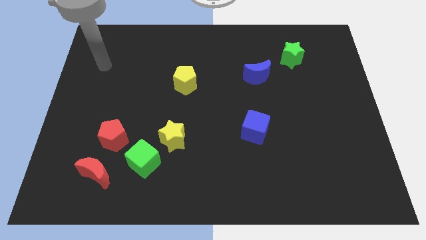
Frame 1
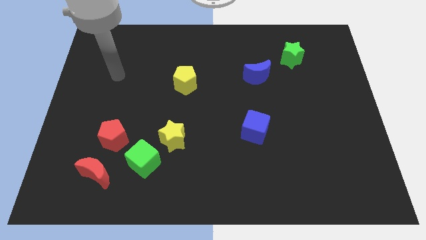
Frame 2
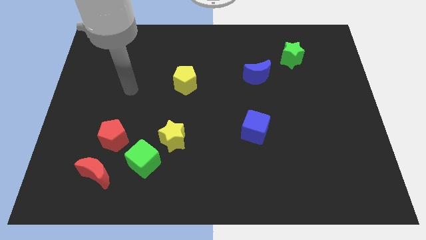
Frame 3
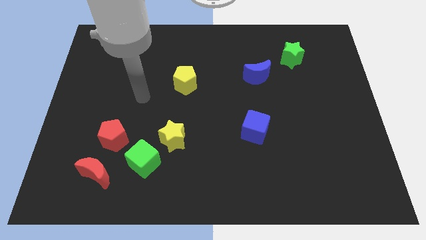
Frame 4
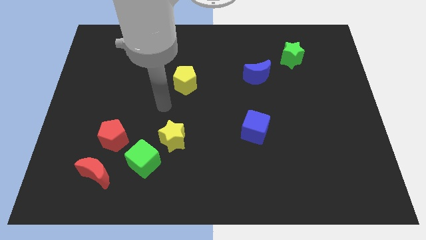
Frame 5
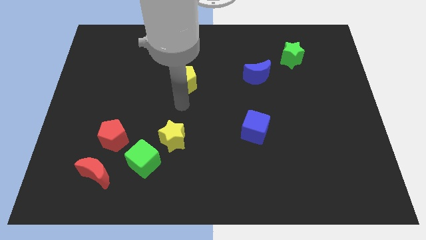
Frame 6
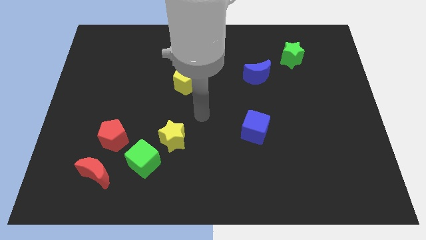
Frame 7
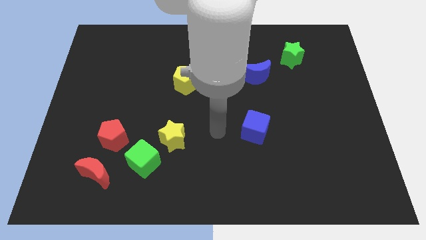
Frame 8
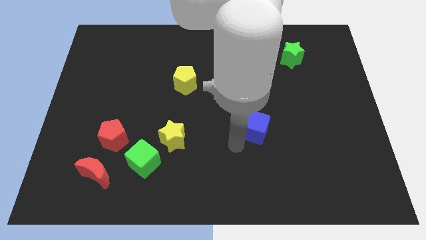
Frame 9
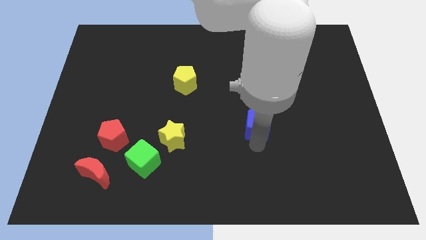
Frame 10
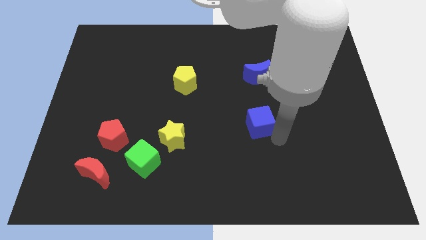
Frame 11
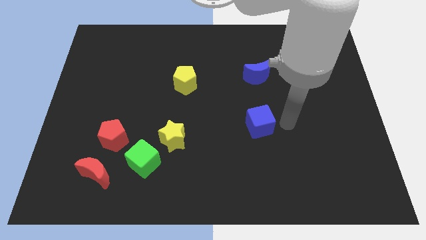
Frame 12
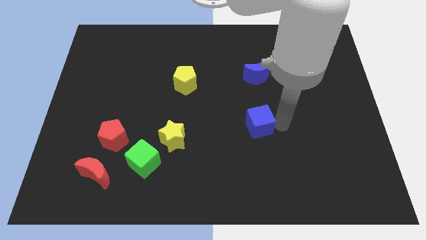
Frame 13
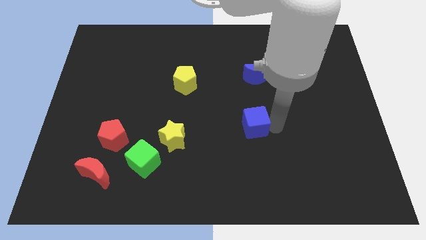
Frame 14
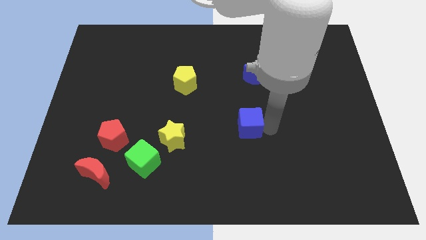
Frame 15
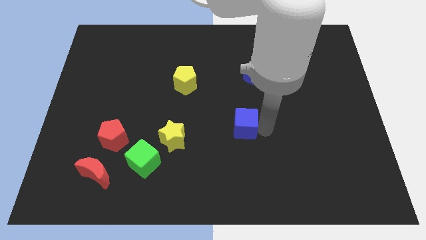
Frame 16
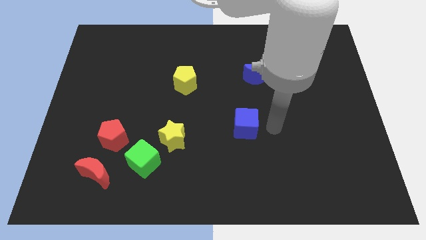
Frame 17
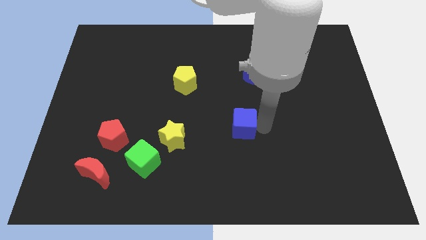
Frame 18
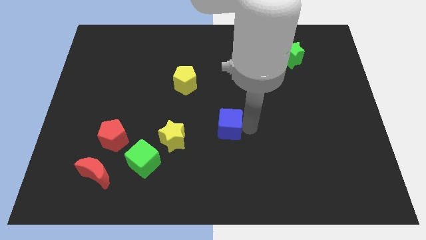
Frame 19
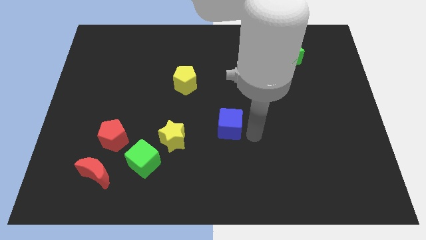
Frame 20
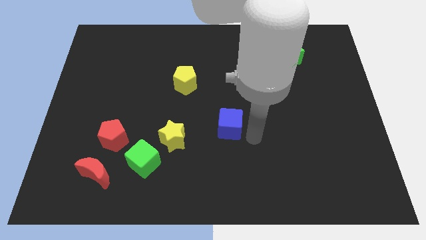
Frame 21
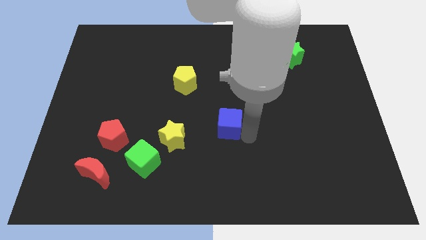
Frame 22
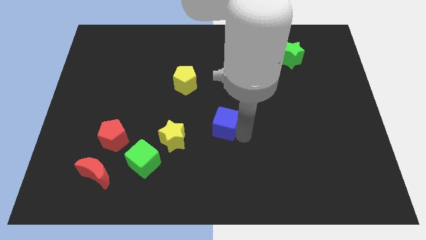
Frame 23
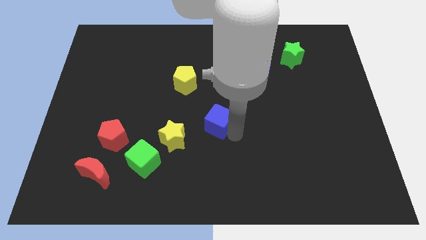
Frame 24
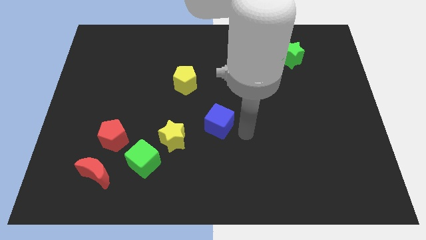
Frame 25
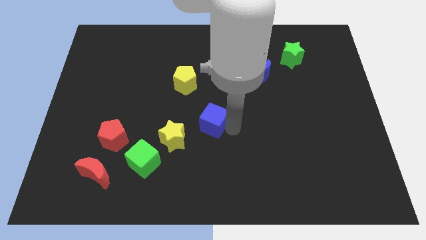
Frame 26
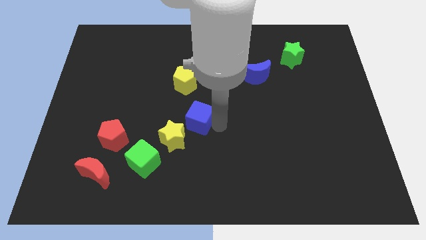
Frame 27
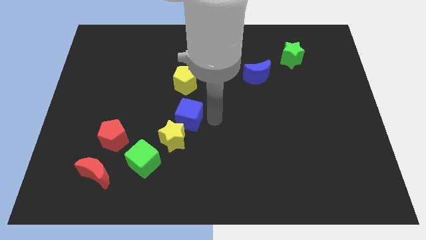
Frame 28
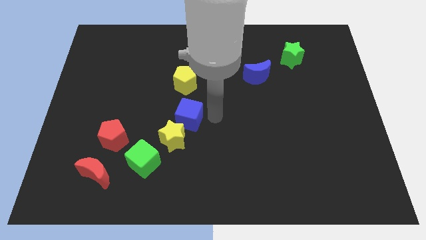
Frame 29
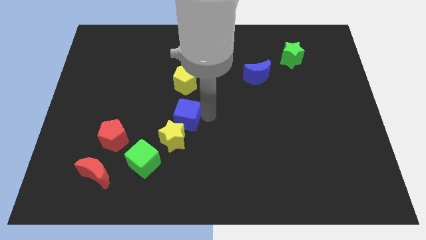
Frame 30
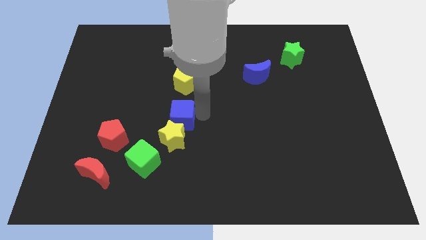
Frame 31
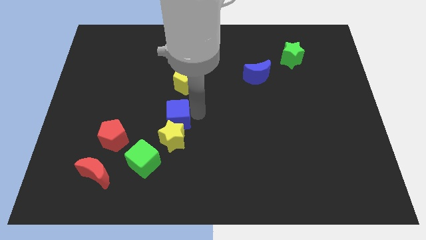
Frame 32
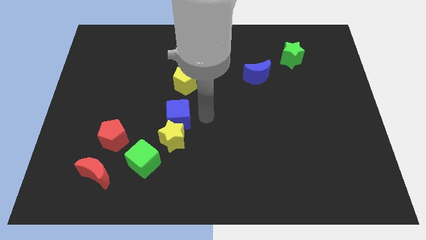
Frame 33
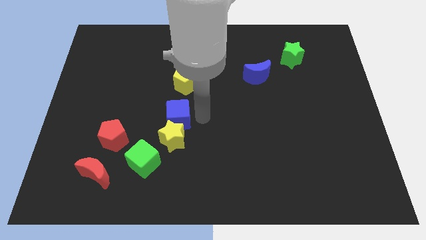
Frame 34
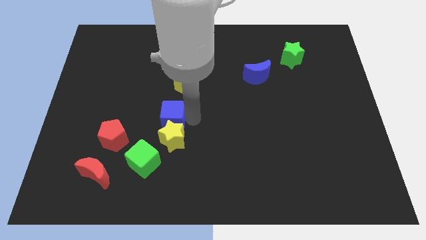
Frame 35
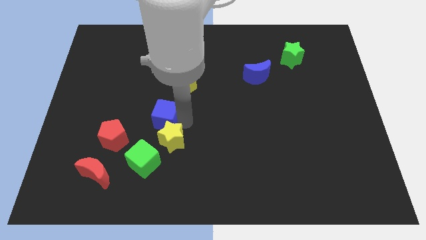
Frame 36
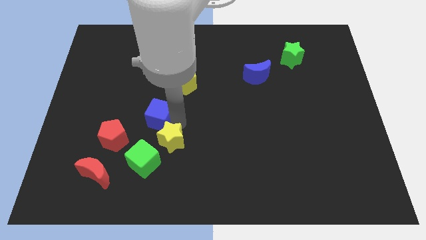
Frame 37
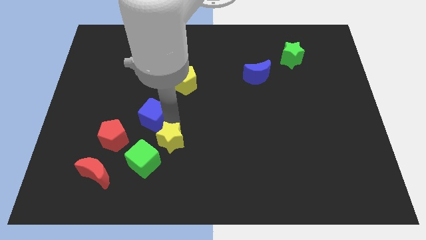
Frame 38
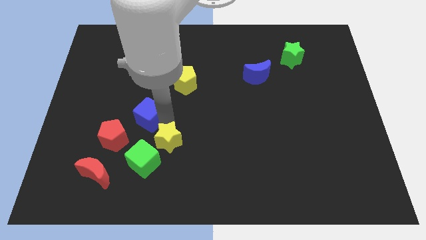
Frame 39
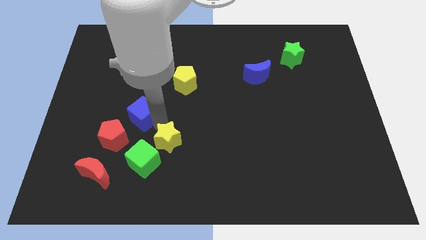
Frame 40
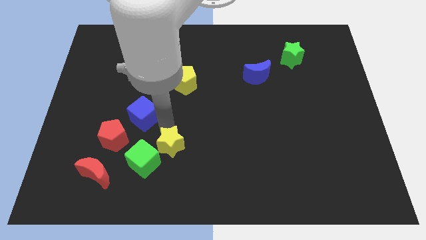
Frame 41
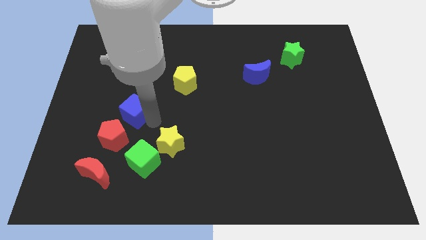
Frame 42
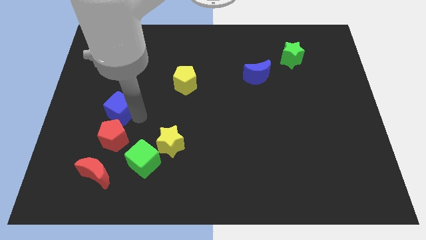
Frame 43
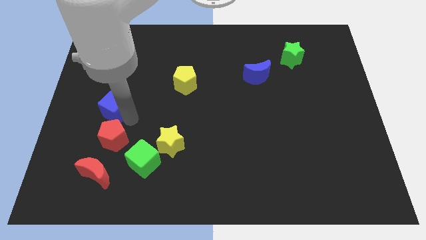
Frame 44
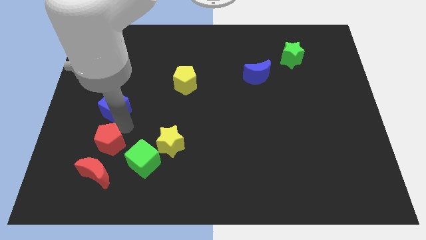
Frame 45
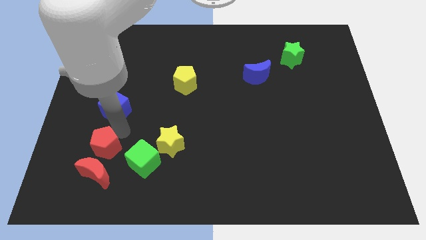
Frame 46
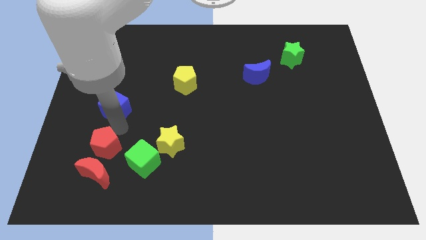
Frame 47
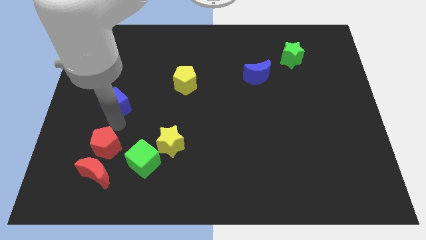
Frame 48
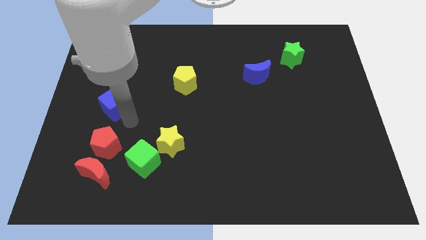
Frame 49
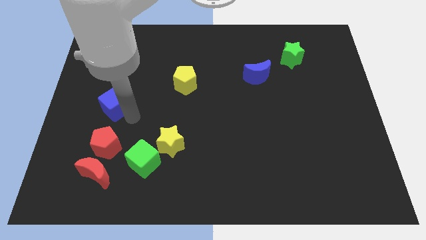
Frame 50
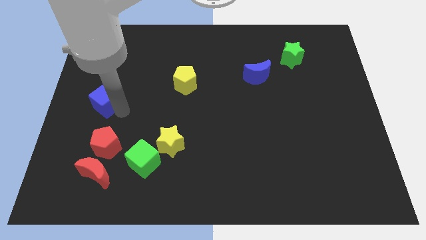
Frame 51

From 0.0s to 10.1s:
put the blue cube to the left side of the board

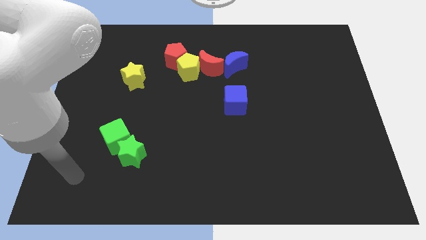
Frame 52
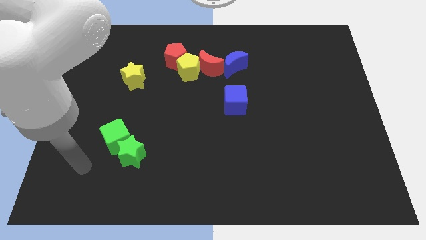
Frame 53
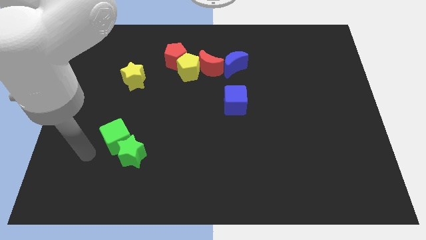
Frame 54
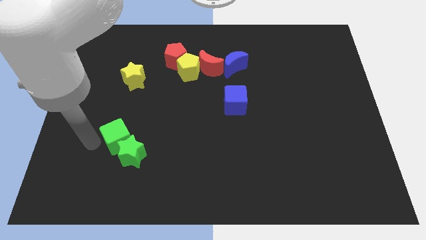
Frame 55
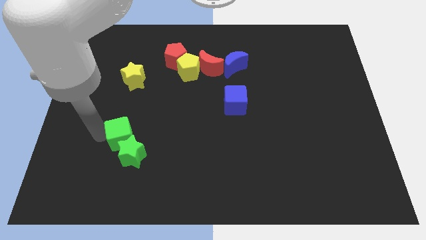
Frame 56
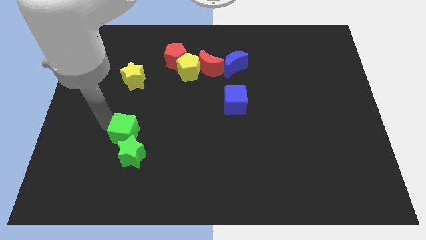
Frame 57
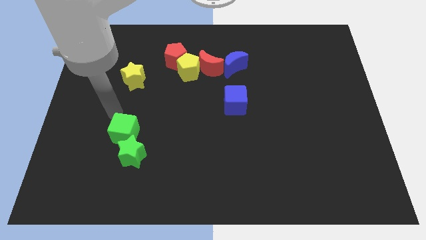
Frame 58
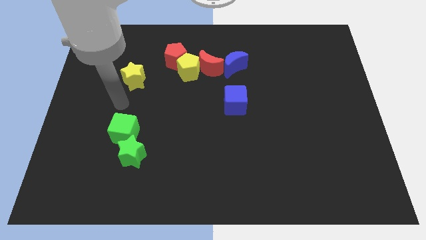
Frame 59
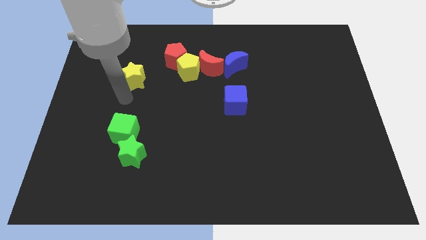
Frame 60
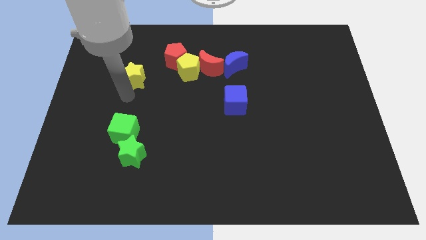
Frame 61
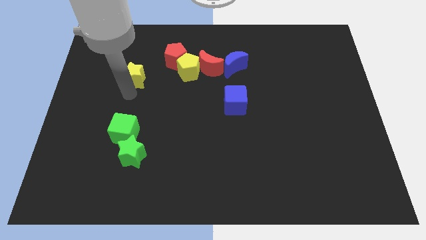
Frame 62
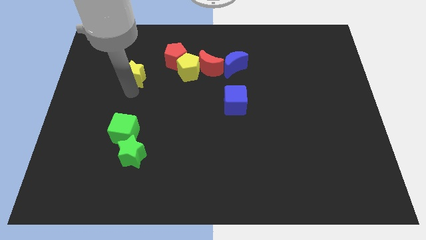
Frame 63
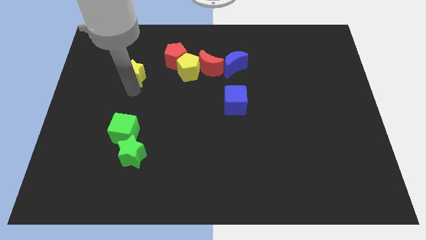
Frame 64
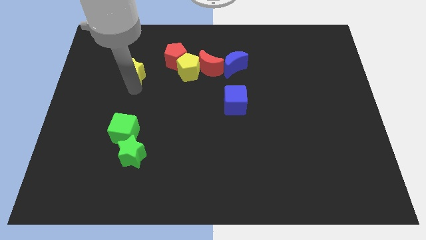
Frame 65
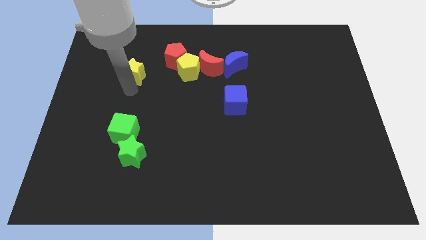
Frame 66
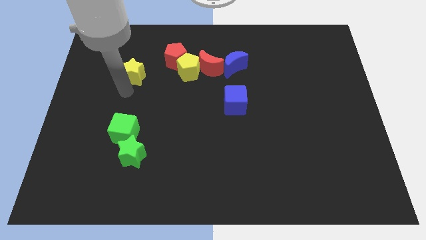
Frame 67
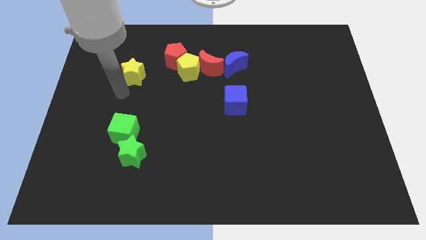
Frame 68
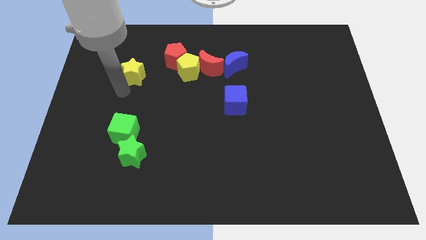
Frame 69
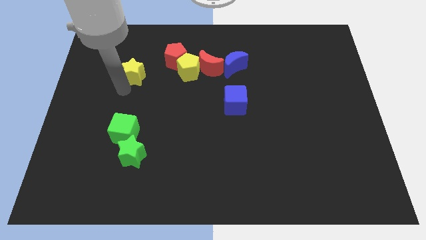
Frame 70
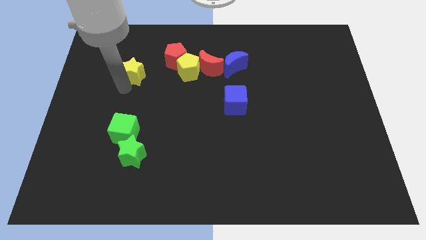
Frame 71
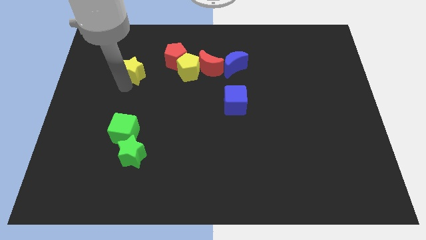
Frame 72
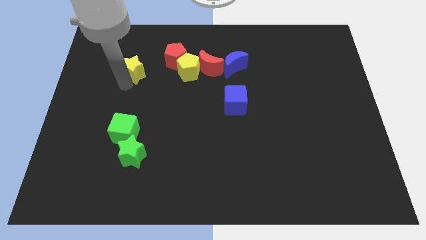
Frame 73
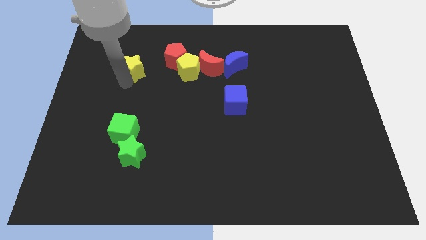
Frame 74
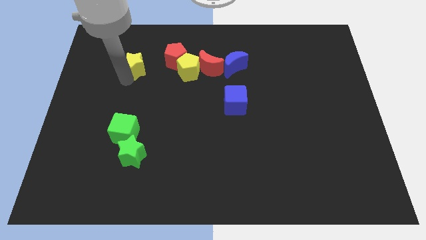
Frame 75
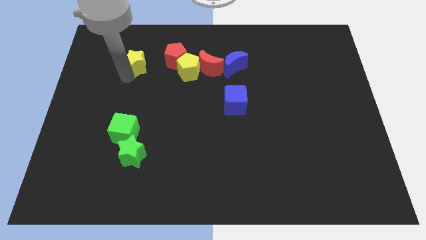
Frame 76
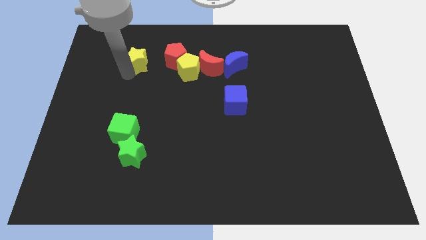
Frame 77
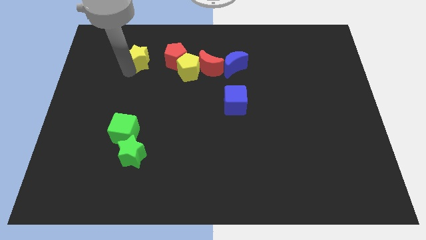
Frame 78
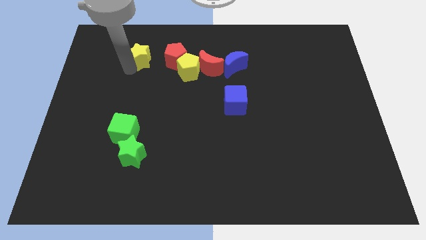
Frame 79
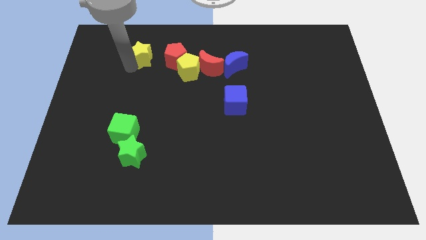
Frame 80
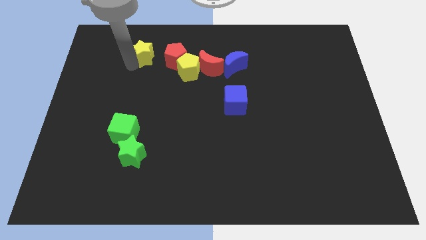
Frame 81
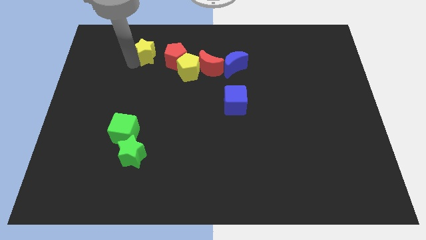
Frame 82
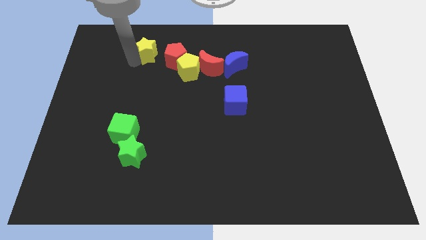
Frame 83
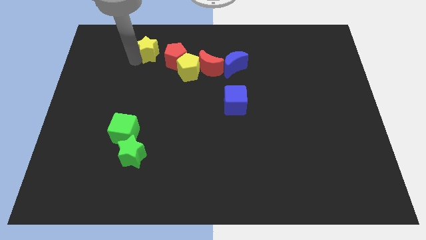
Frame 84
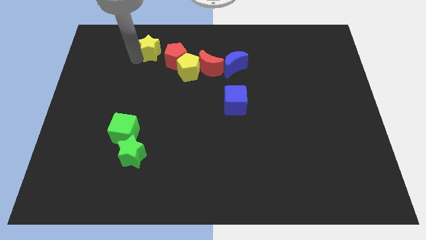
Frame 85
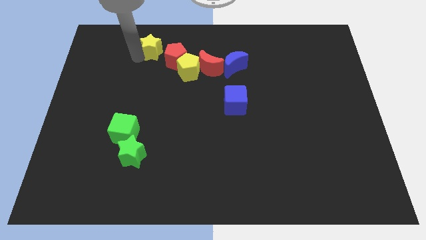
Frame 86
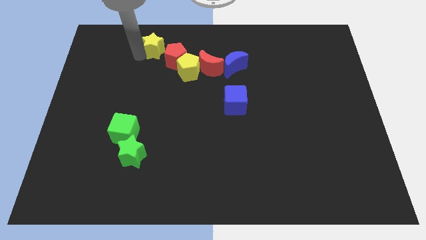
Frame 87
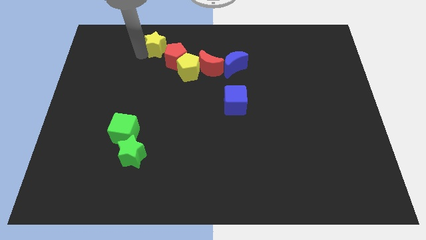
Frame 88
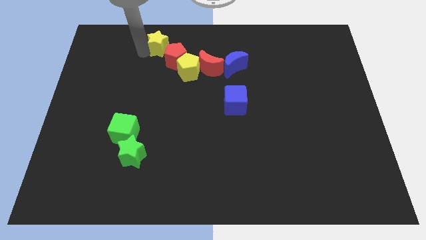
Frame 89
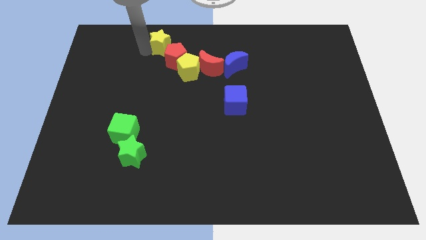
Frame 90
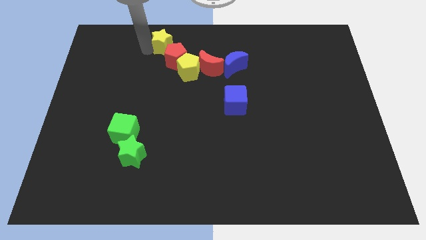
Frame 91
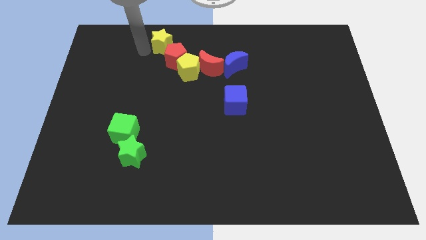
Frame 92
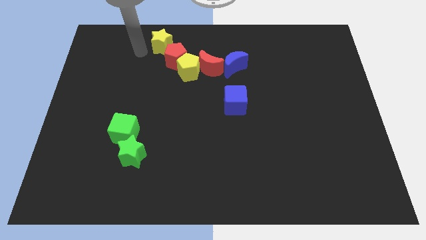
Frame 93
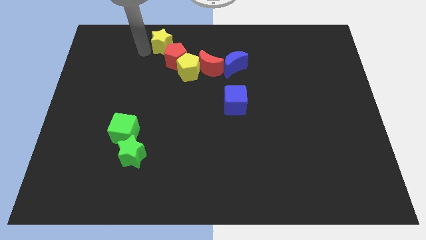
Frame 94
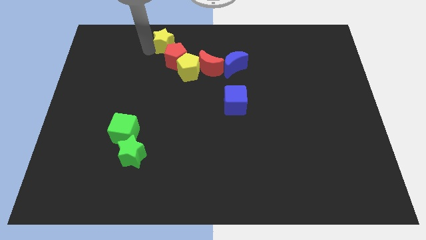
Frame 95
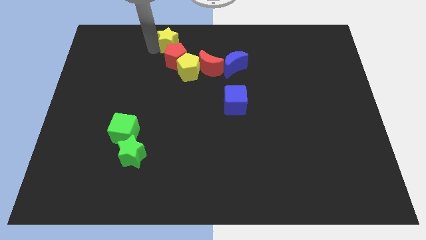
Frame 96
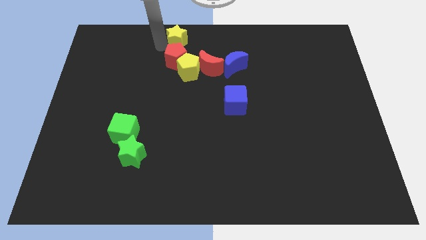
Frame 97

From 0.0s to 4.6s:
move the yellow star to the towards your base
